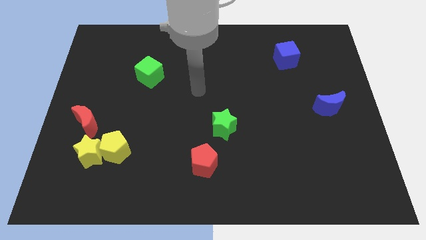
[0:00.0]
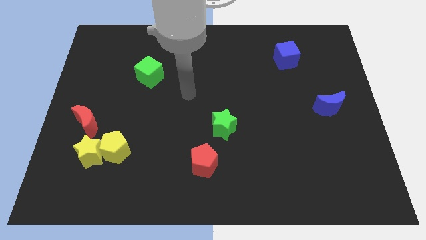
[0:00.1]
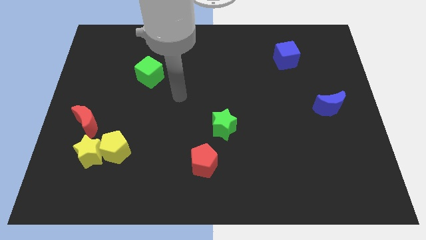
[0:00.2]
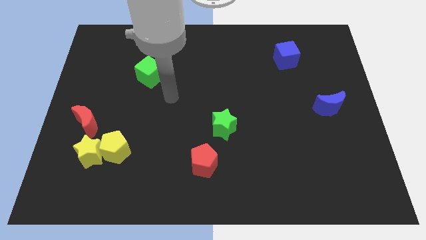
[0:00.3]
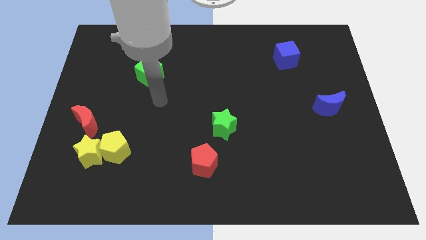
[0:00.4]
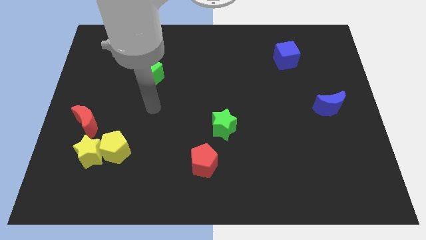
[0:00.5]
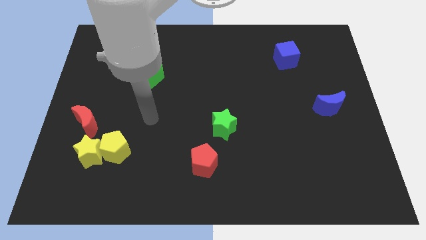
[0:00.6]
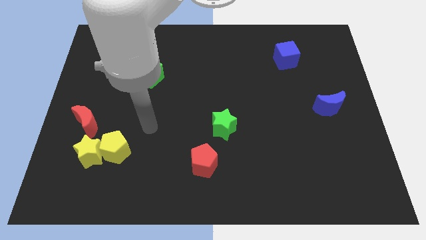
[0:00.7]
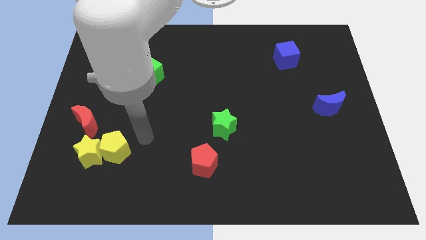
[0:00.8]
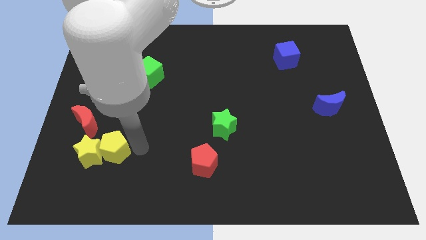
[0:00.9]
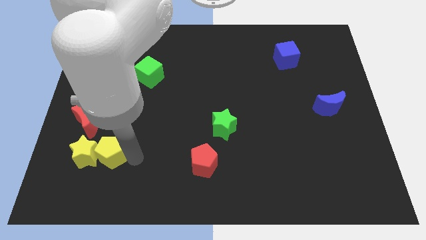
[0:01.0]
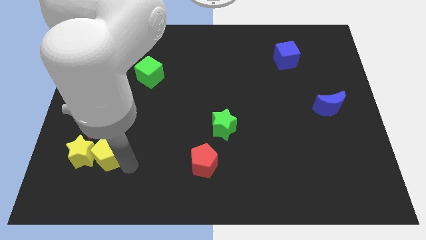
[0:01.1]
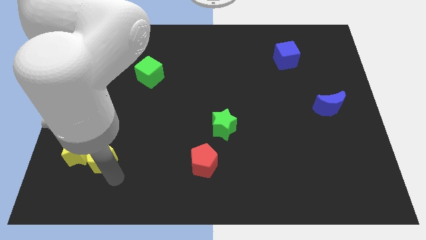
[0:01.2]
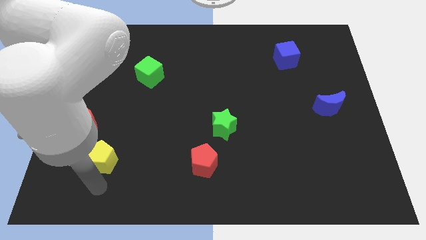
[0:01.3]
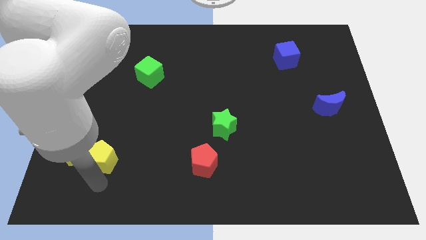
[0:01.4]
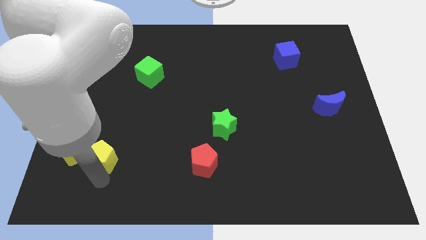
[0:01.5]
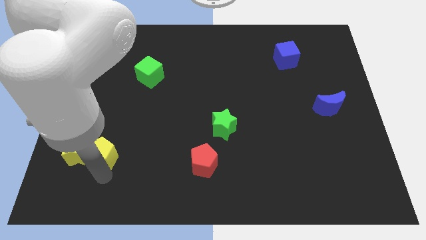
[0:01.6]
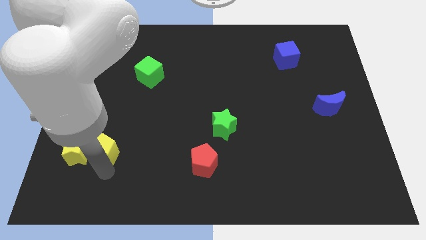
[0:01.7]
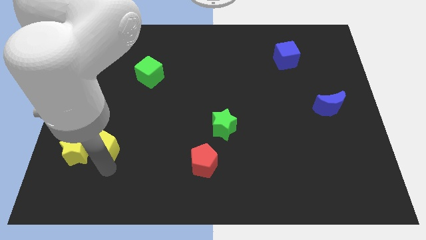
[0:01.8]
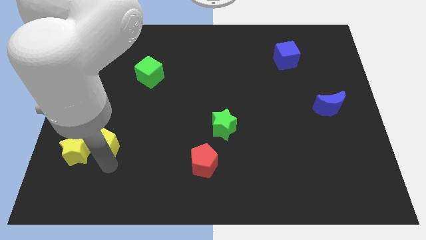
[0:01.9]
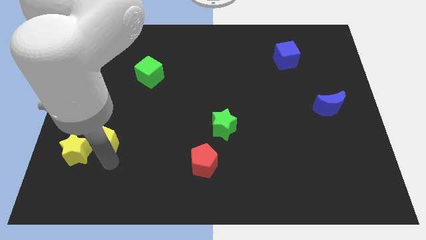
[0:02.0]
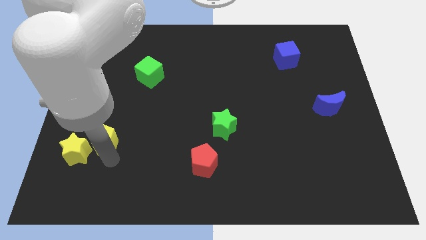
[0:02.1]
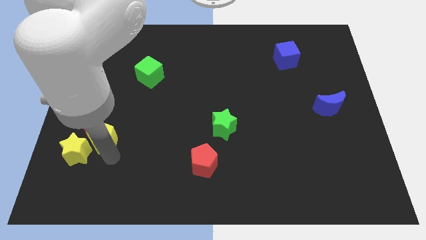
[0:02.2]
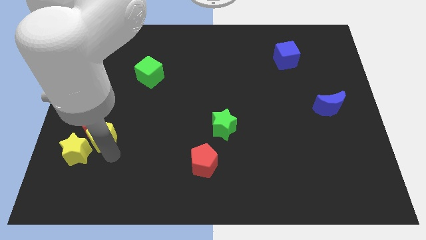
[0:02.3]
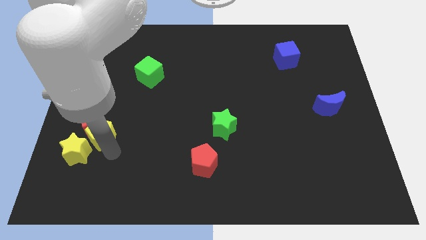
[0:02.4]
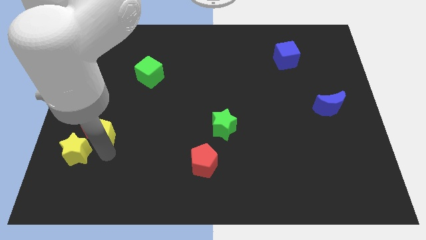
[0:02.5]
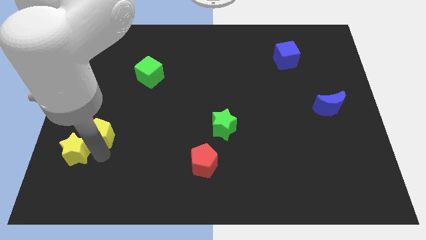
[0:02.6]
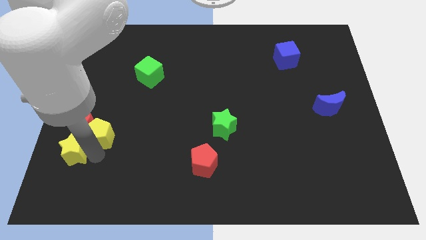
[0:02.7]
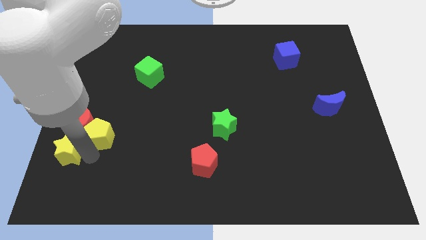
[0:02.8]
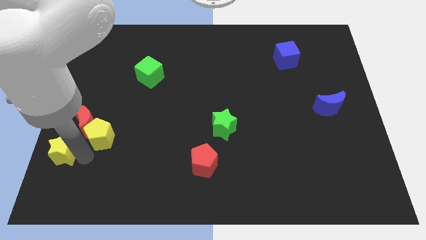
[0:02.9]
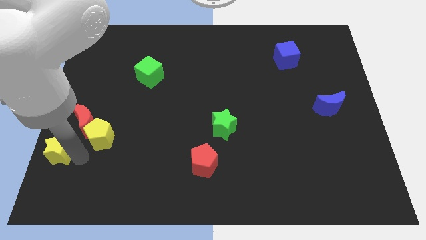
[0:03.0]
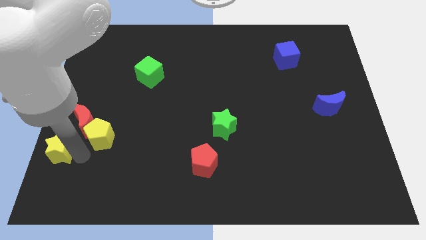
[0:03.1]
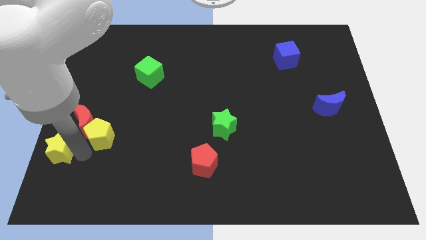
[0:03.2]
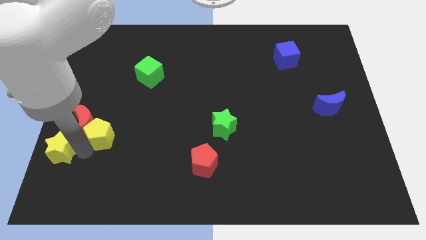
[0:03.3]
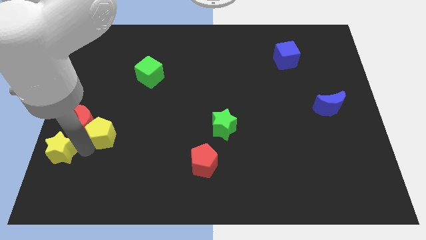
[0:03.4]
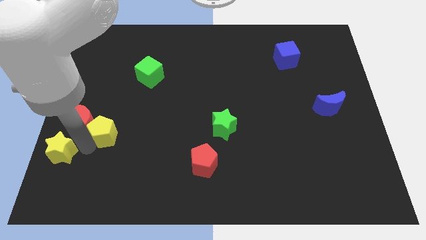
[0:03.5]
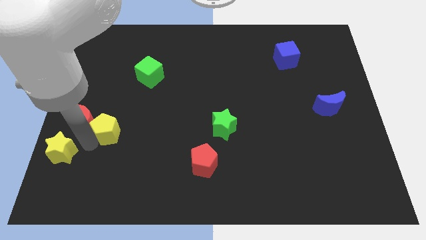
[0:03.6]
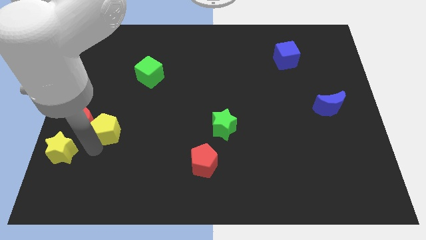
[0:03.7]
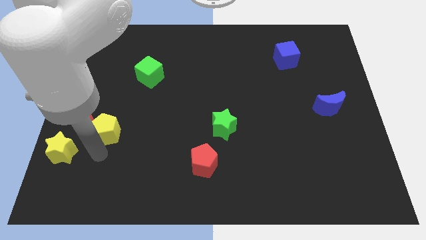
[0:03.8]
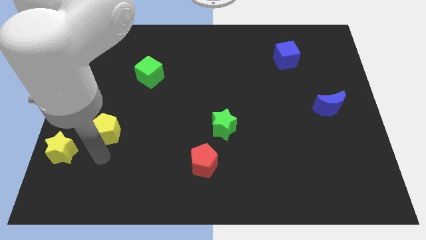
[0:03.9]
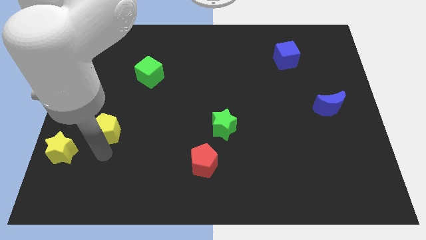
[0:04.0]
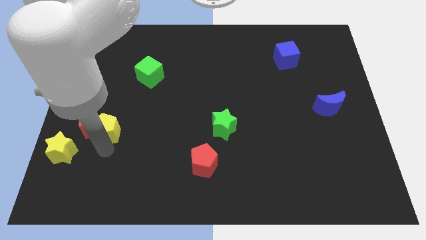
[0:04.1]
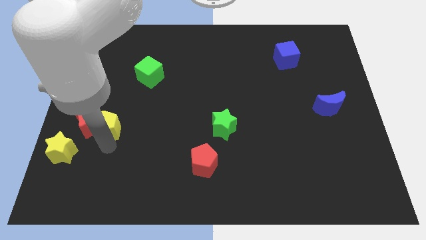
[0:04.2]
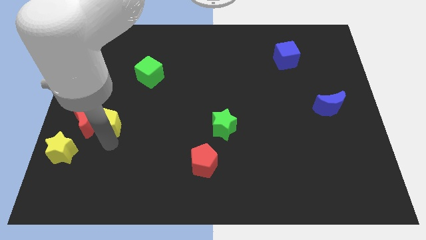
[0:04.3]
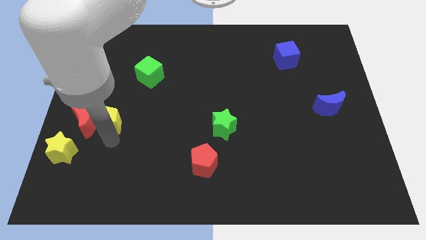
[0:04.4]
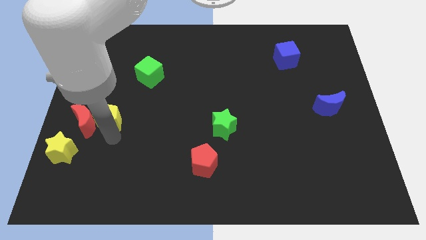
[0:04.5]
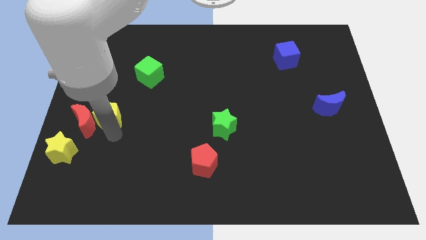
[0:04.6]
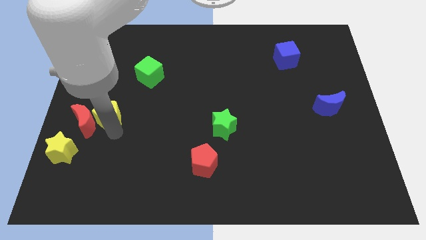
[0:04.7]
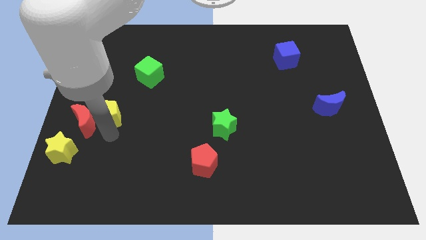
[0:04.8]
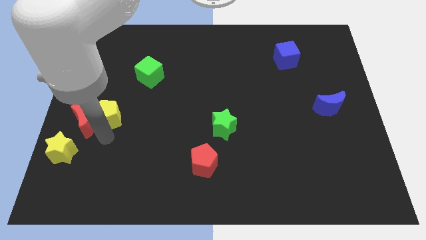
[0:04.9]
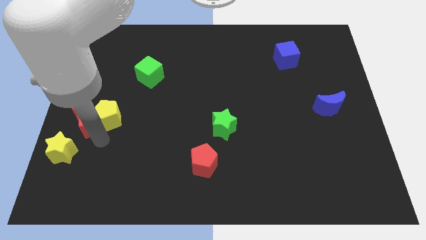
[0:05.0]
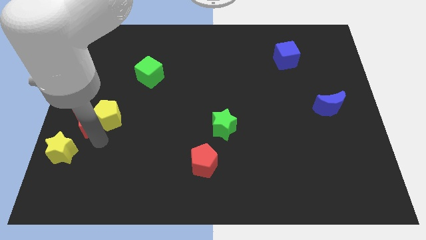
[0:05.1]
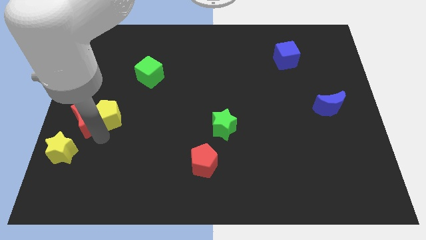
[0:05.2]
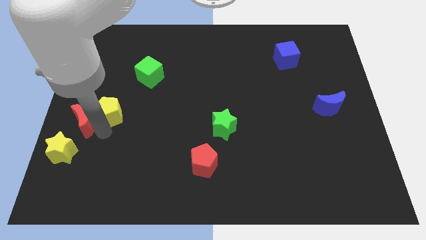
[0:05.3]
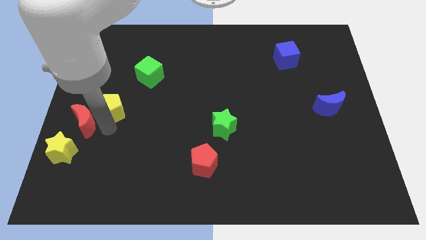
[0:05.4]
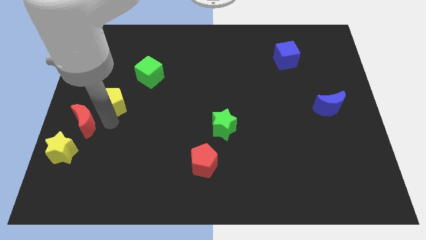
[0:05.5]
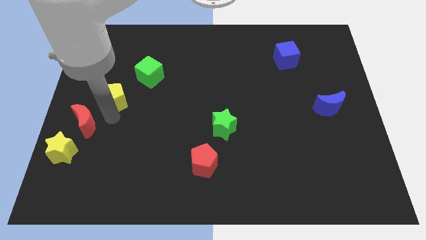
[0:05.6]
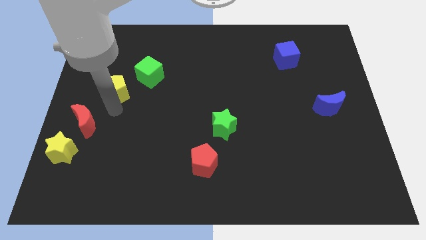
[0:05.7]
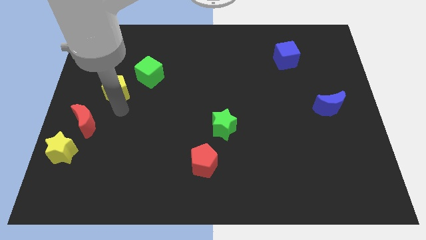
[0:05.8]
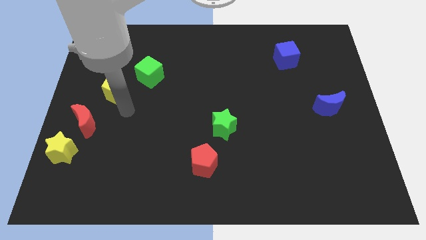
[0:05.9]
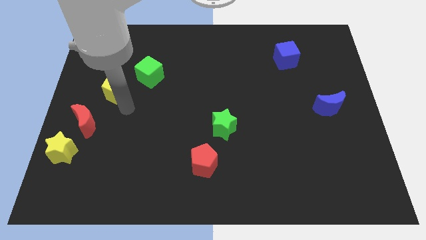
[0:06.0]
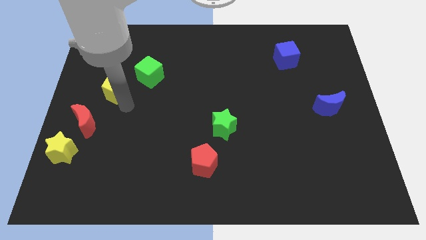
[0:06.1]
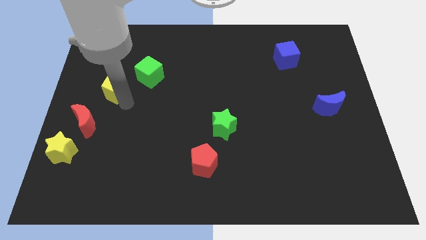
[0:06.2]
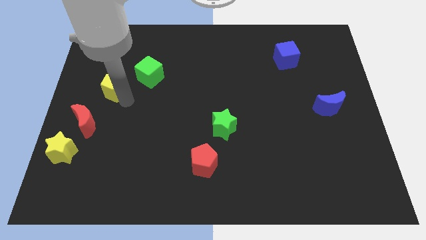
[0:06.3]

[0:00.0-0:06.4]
put the yellow pentagon just left of the green cube
